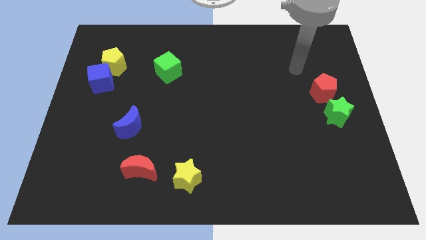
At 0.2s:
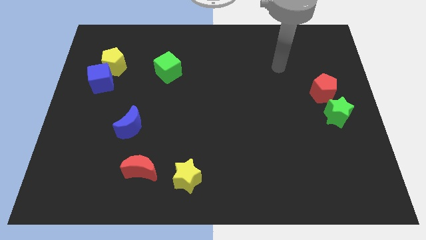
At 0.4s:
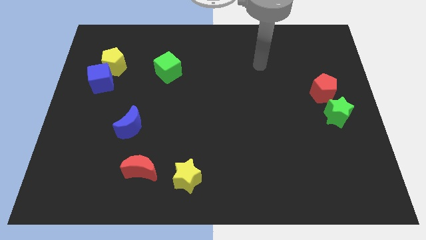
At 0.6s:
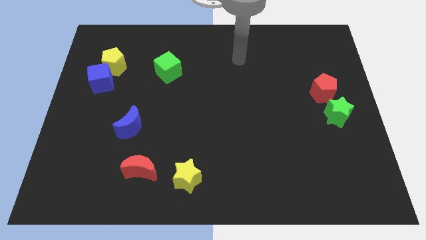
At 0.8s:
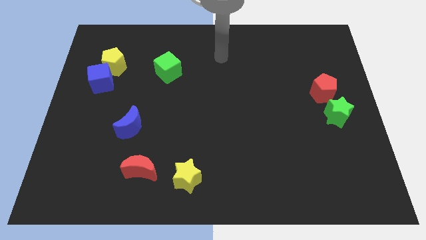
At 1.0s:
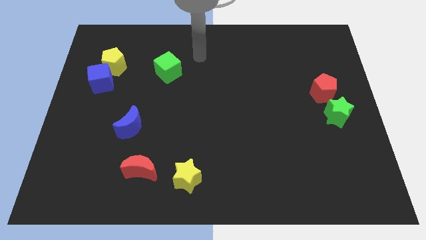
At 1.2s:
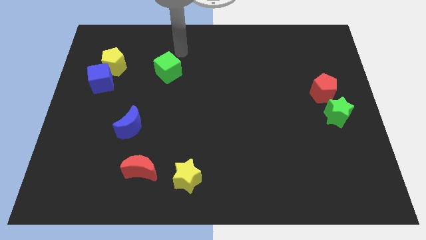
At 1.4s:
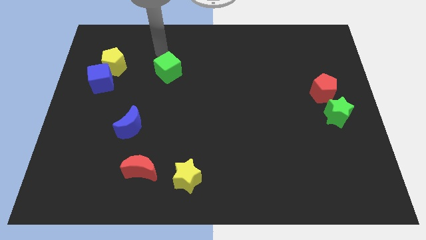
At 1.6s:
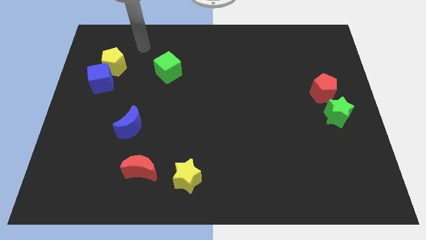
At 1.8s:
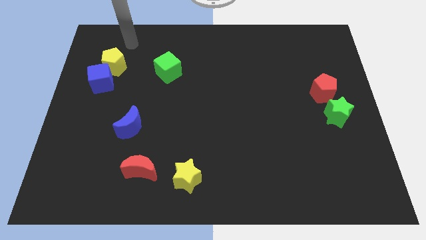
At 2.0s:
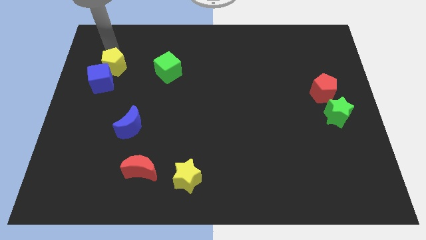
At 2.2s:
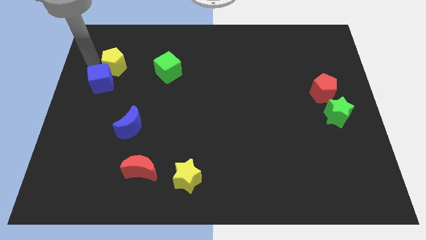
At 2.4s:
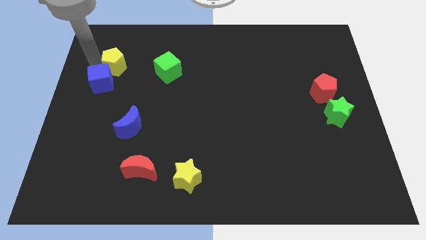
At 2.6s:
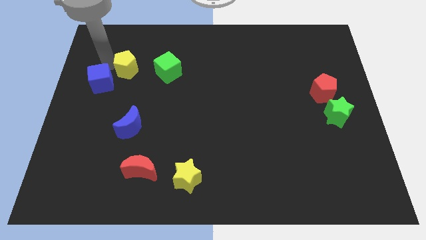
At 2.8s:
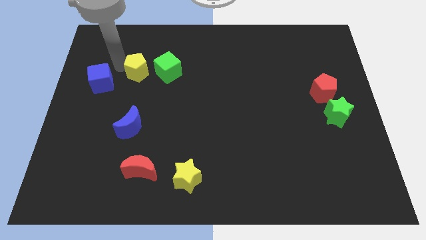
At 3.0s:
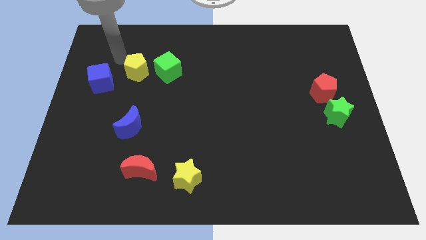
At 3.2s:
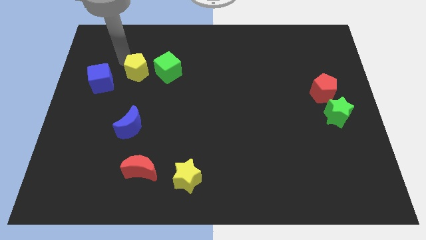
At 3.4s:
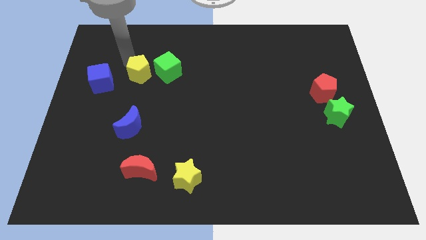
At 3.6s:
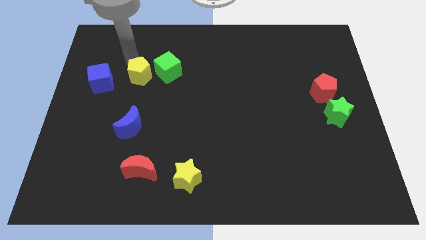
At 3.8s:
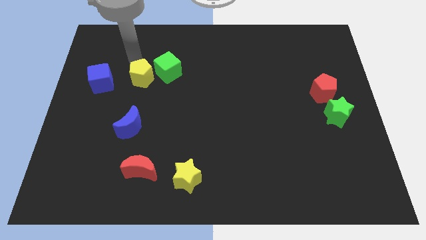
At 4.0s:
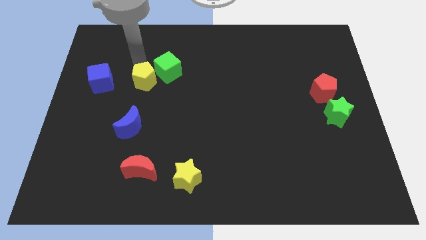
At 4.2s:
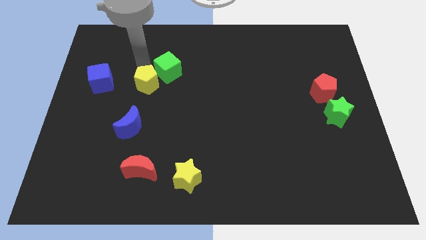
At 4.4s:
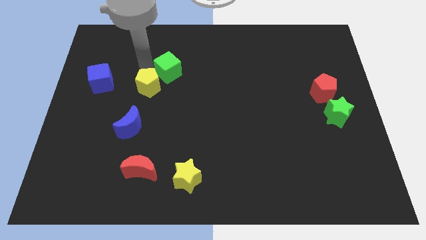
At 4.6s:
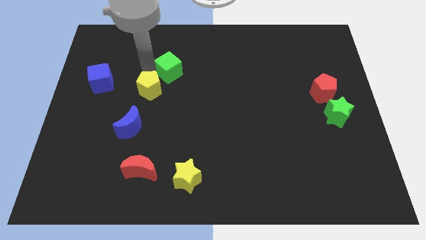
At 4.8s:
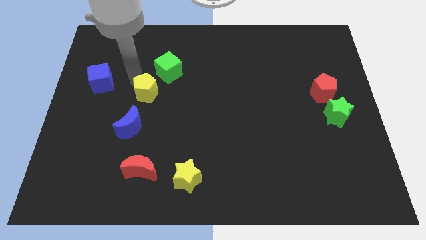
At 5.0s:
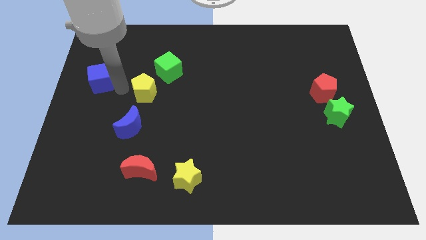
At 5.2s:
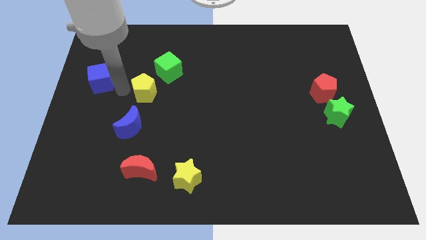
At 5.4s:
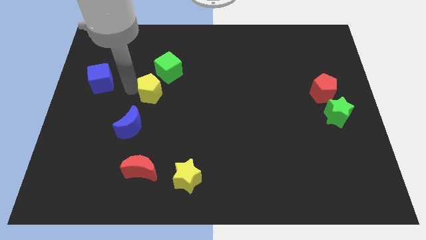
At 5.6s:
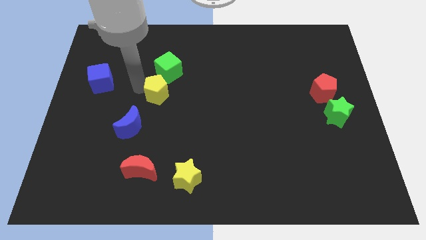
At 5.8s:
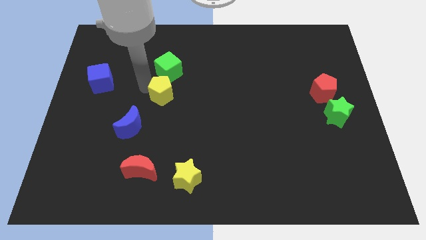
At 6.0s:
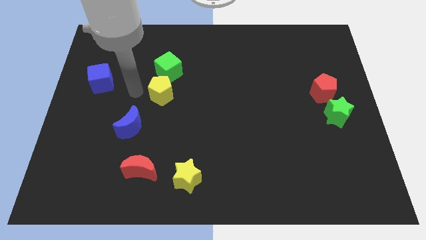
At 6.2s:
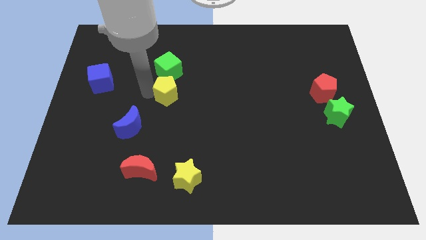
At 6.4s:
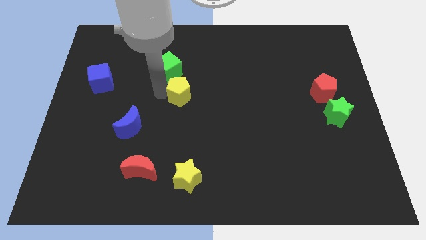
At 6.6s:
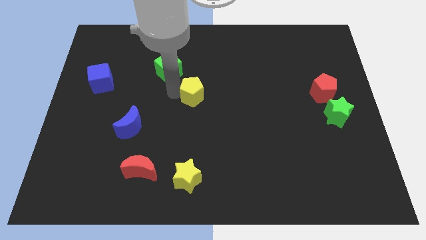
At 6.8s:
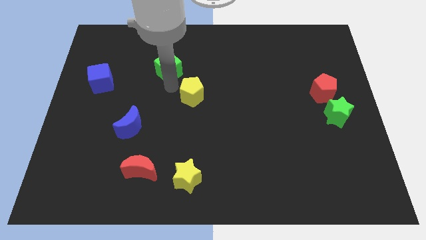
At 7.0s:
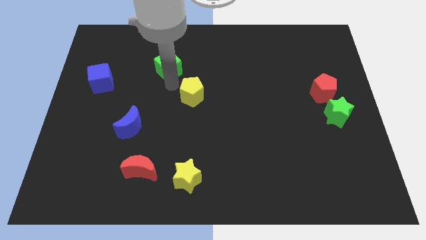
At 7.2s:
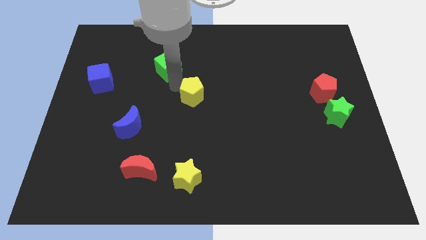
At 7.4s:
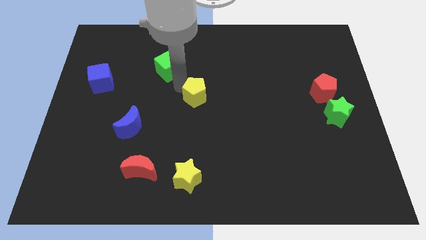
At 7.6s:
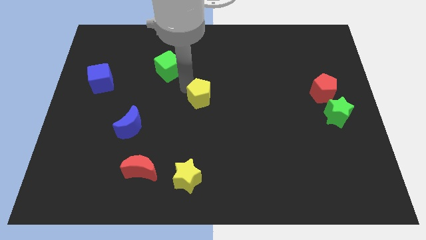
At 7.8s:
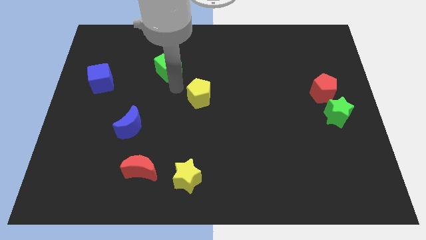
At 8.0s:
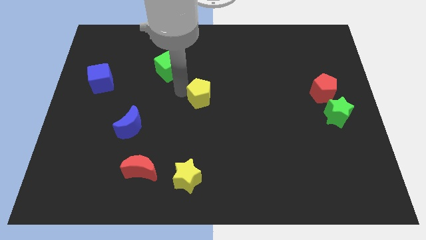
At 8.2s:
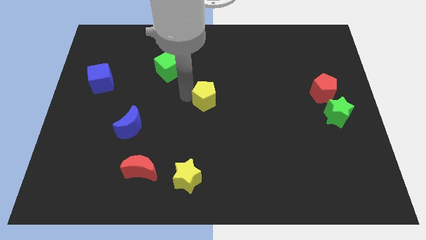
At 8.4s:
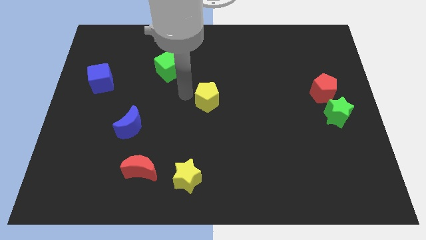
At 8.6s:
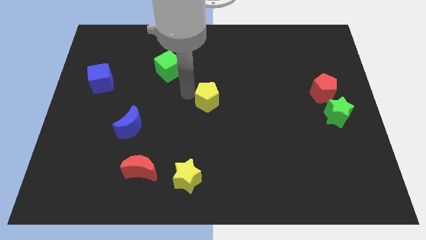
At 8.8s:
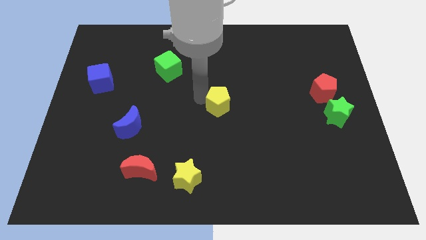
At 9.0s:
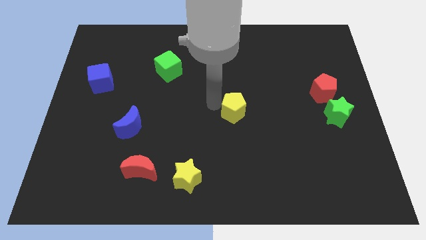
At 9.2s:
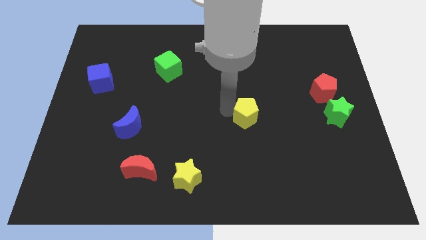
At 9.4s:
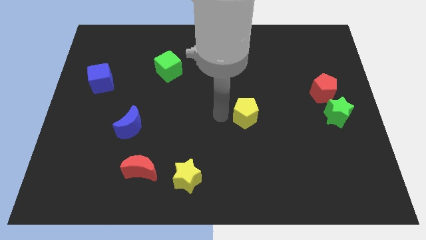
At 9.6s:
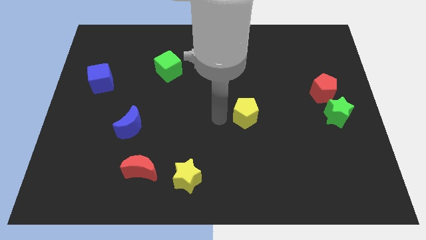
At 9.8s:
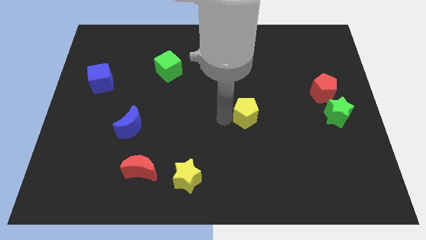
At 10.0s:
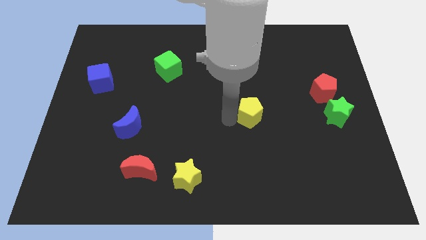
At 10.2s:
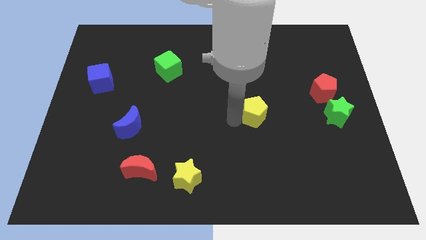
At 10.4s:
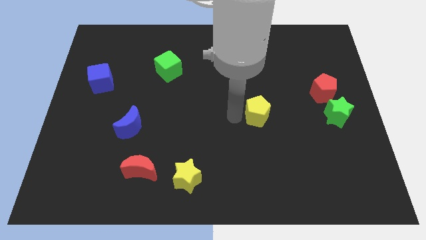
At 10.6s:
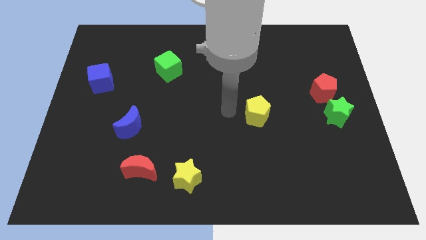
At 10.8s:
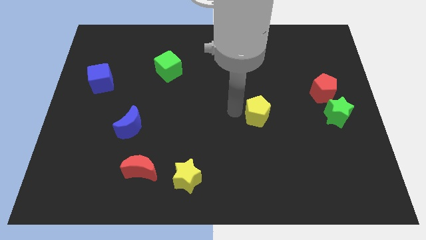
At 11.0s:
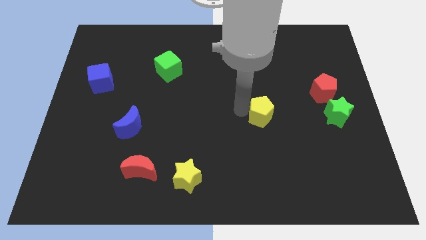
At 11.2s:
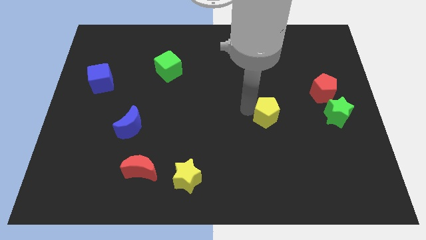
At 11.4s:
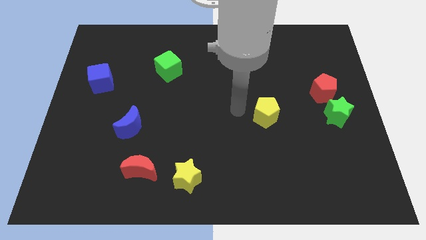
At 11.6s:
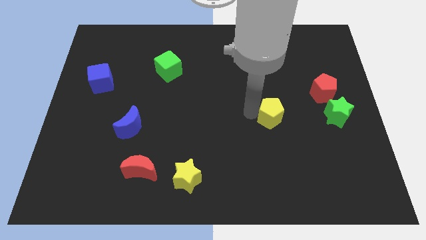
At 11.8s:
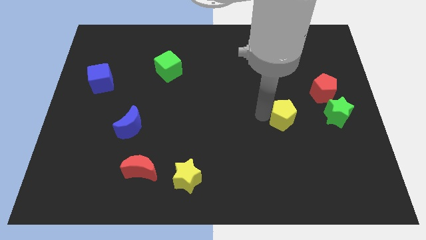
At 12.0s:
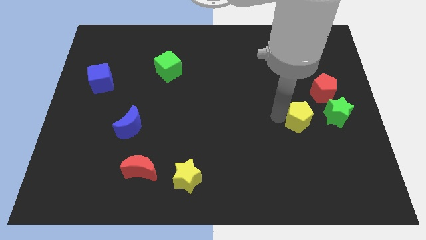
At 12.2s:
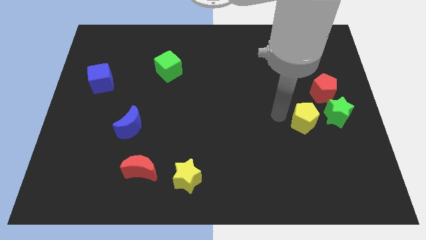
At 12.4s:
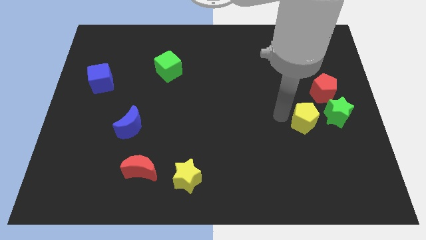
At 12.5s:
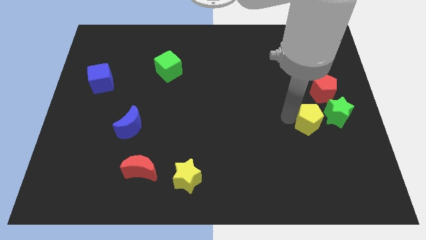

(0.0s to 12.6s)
put the yellow pentagon to the bottom side of the red pentagon
